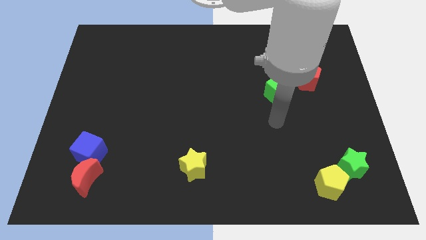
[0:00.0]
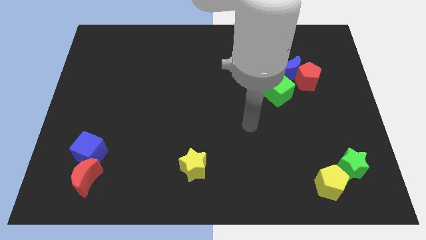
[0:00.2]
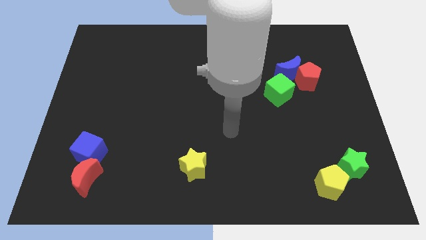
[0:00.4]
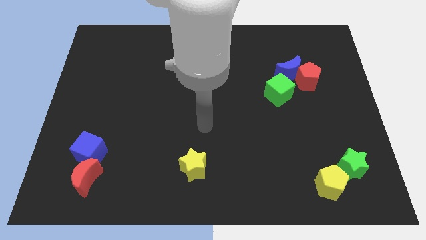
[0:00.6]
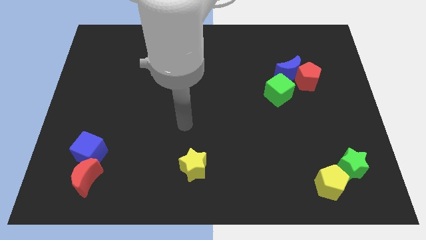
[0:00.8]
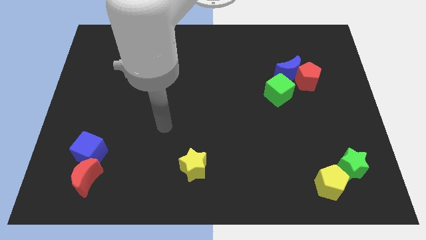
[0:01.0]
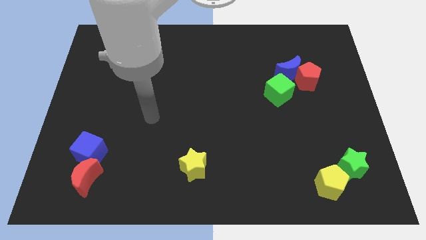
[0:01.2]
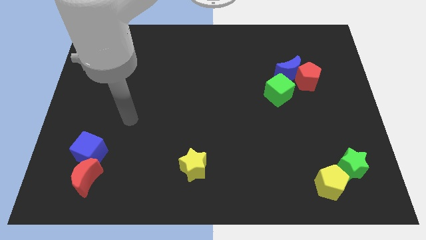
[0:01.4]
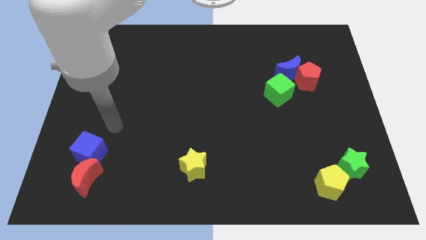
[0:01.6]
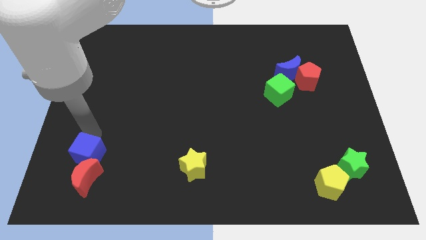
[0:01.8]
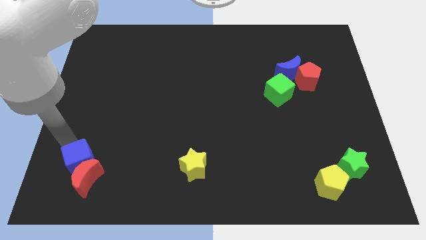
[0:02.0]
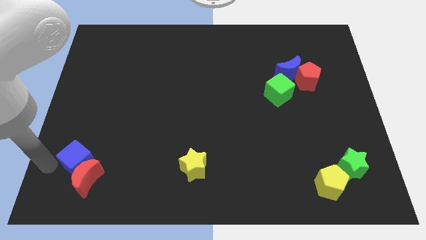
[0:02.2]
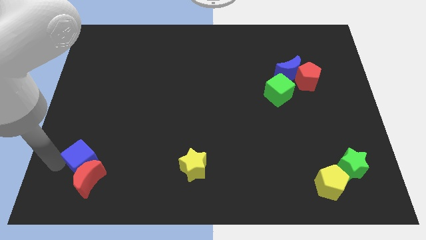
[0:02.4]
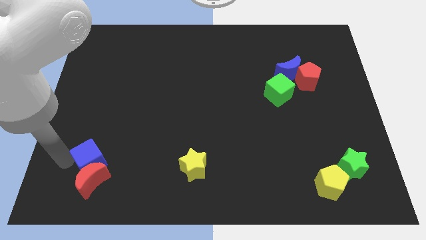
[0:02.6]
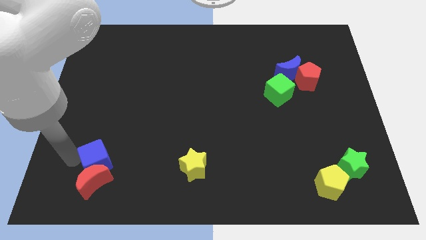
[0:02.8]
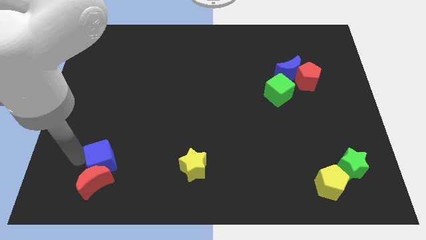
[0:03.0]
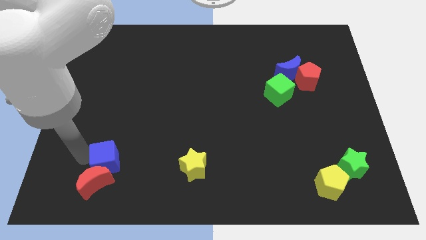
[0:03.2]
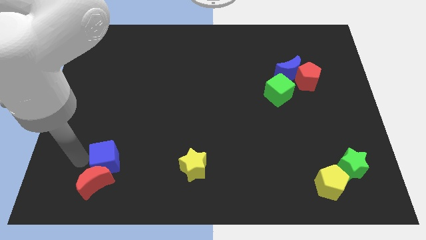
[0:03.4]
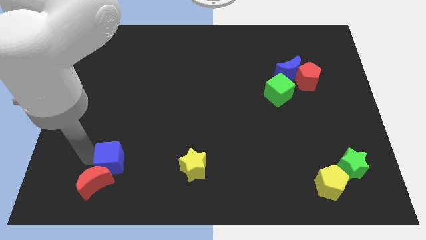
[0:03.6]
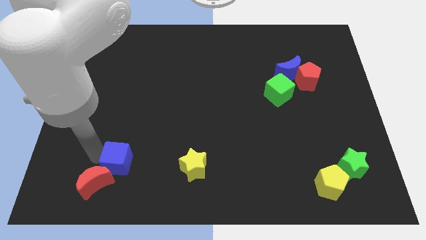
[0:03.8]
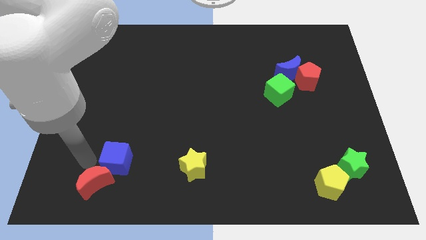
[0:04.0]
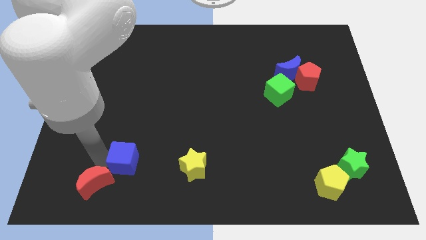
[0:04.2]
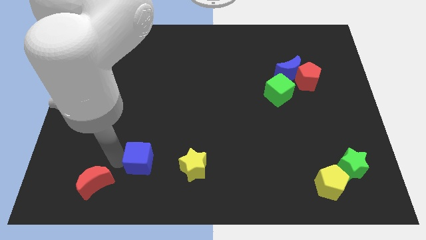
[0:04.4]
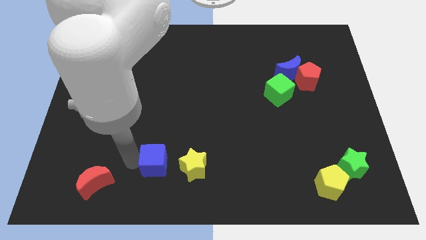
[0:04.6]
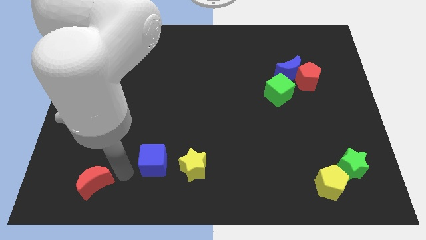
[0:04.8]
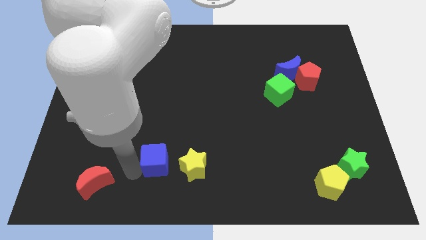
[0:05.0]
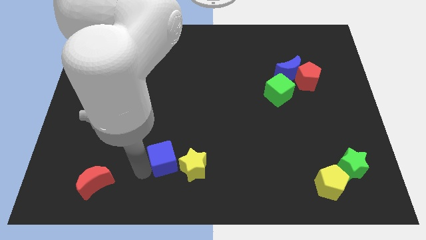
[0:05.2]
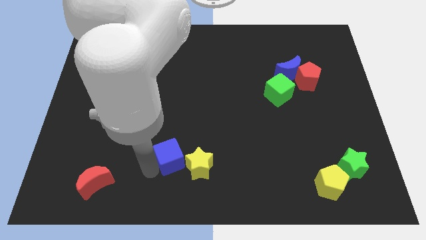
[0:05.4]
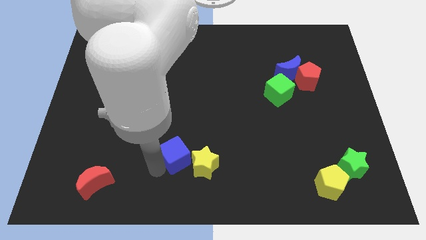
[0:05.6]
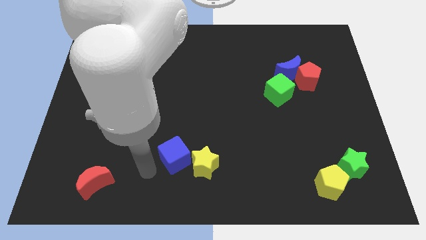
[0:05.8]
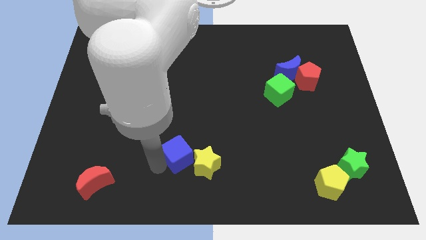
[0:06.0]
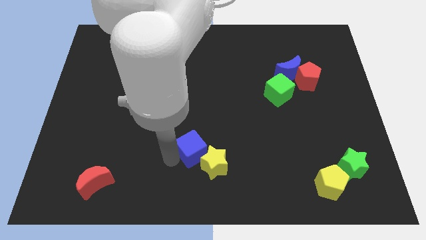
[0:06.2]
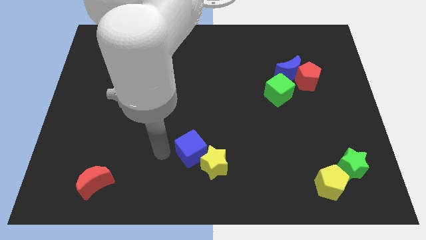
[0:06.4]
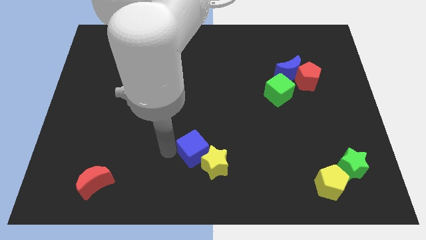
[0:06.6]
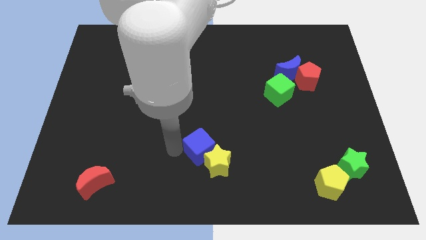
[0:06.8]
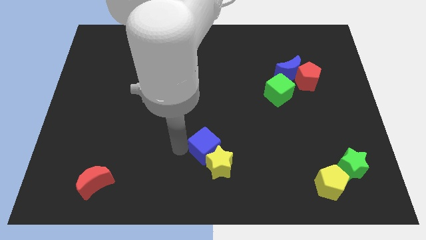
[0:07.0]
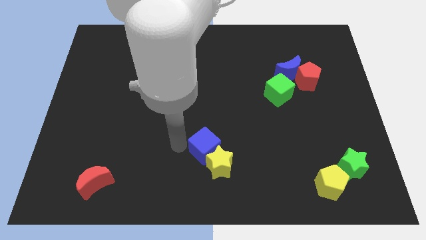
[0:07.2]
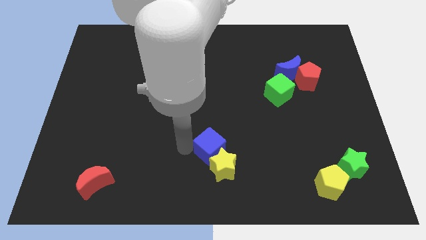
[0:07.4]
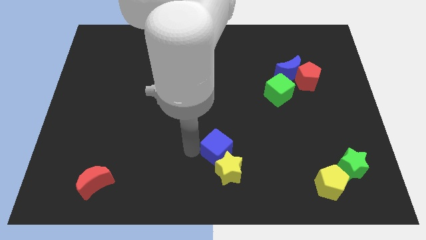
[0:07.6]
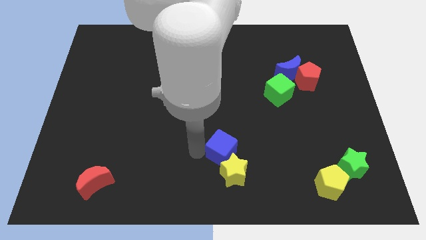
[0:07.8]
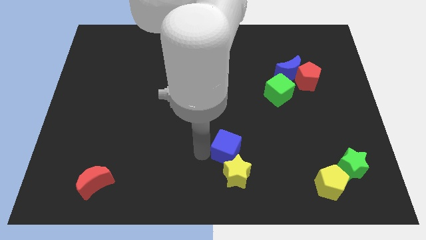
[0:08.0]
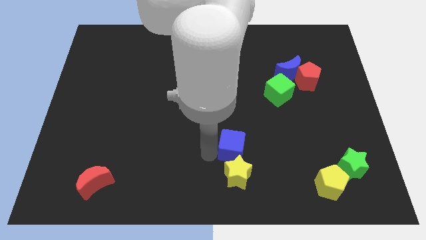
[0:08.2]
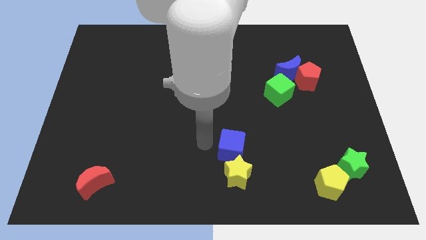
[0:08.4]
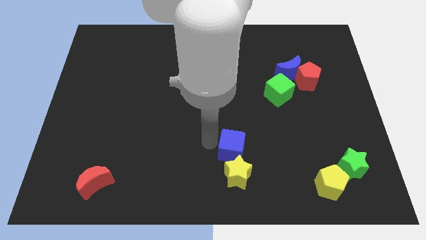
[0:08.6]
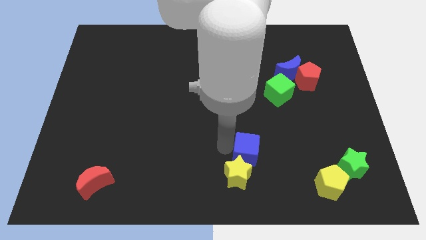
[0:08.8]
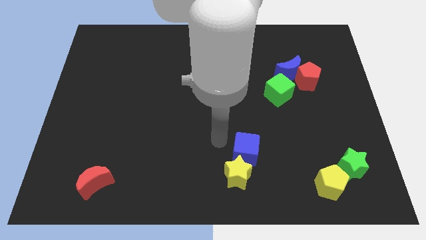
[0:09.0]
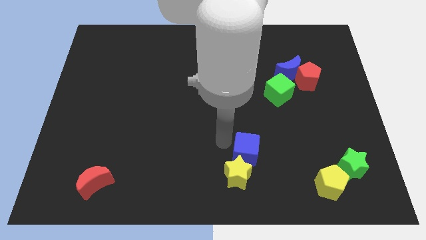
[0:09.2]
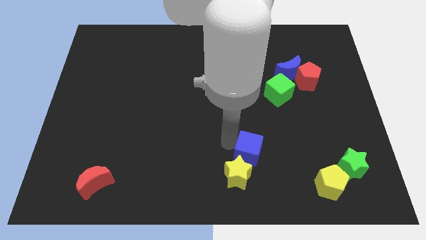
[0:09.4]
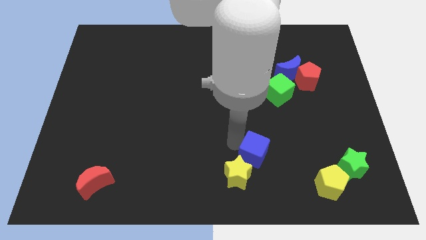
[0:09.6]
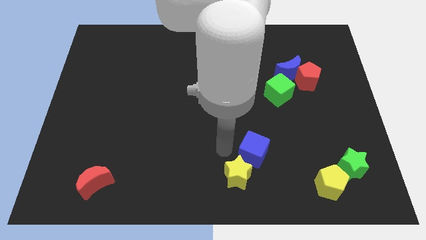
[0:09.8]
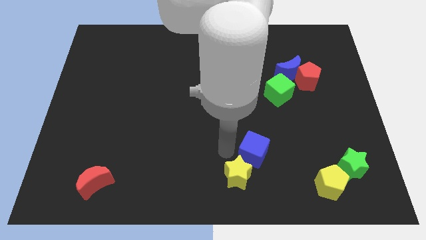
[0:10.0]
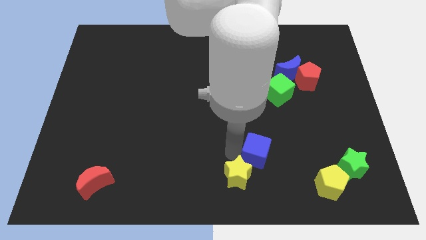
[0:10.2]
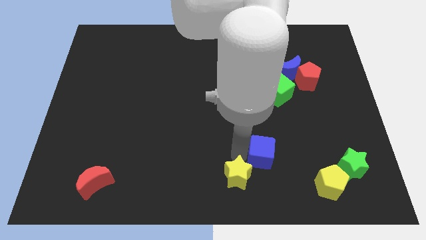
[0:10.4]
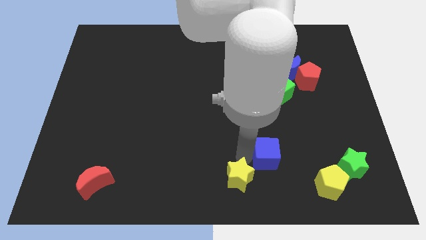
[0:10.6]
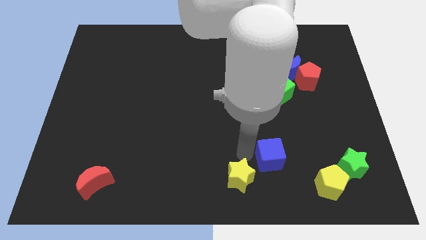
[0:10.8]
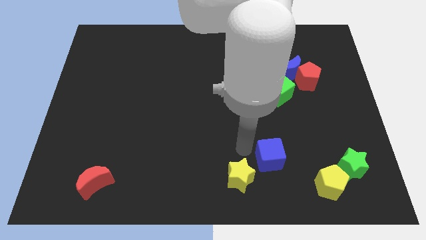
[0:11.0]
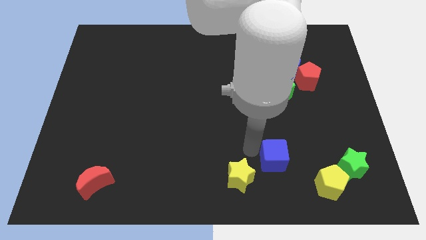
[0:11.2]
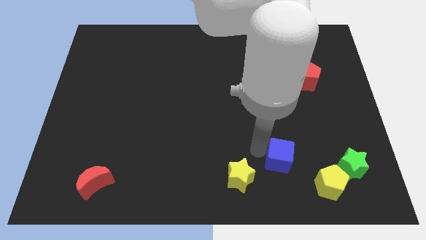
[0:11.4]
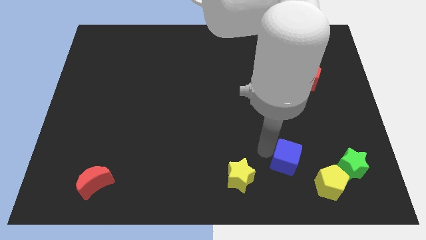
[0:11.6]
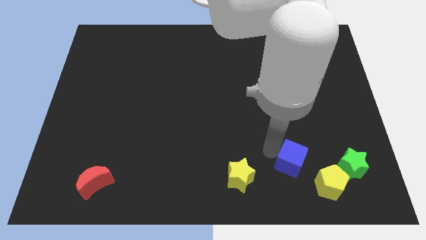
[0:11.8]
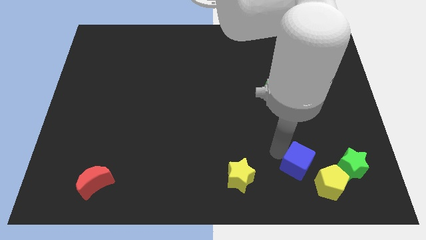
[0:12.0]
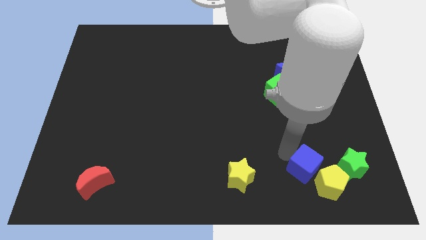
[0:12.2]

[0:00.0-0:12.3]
move the blue cube close to the yellow pentagon

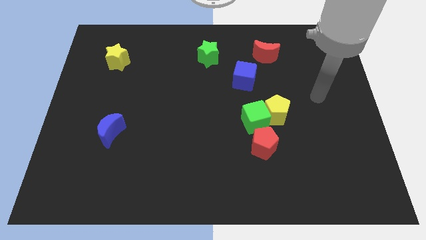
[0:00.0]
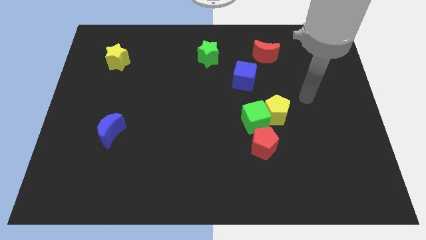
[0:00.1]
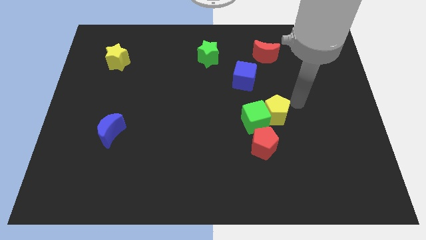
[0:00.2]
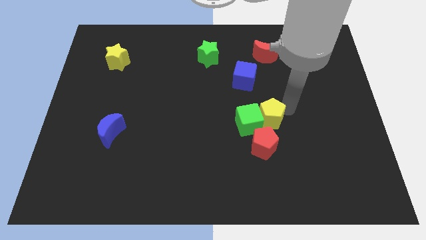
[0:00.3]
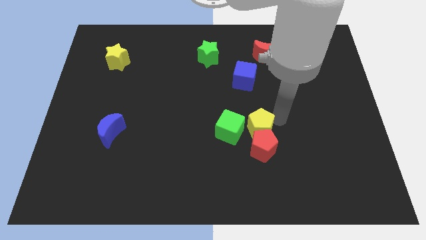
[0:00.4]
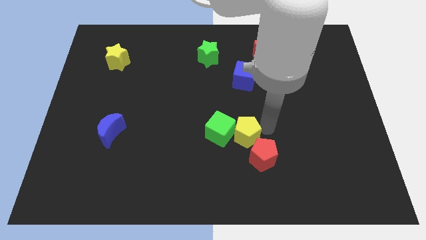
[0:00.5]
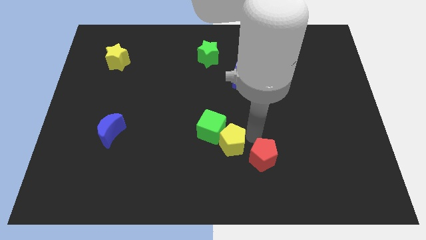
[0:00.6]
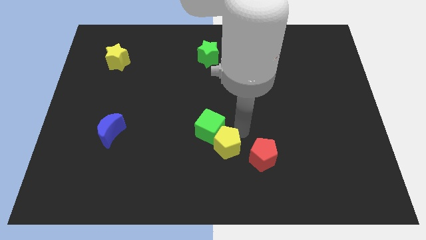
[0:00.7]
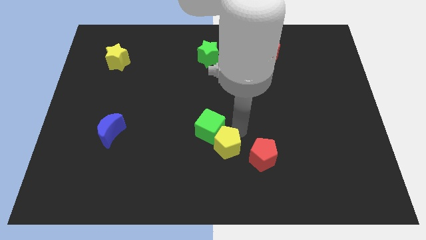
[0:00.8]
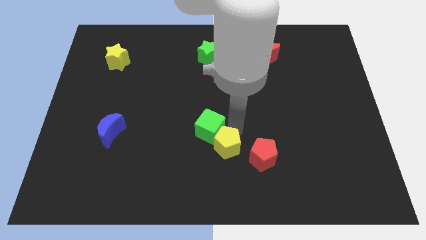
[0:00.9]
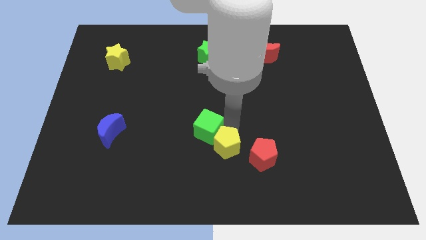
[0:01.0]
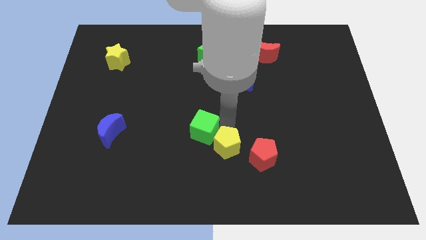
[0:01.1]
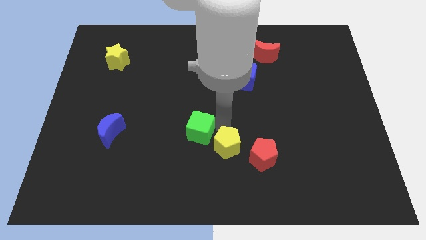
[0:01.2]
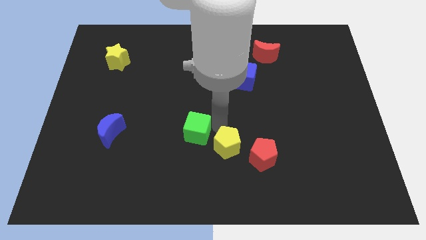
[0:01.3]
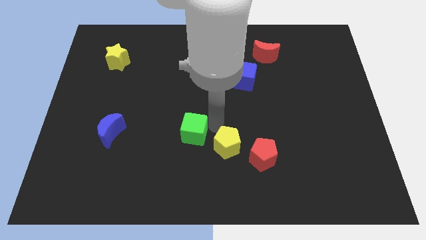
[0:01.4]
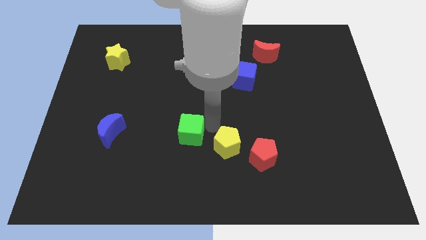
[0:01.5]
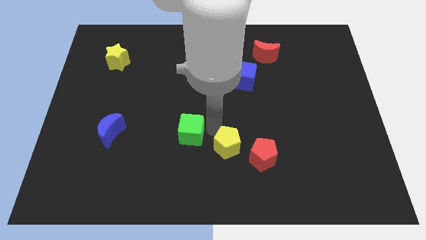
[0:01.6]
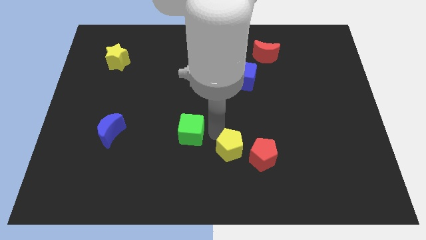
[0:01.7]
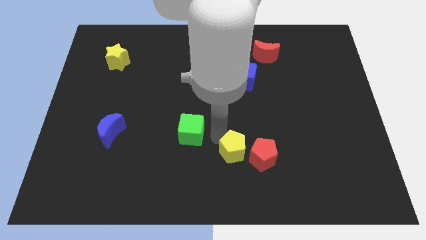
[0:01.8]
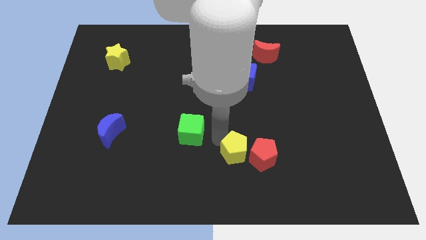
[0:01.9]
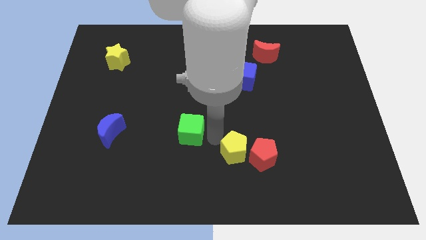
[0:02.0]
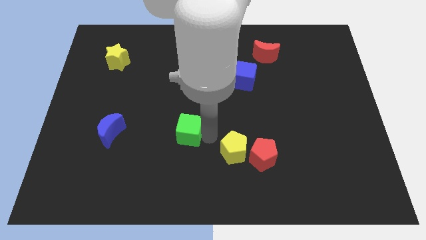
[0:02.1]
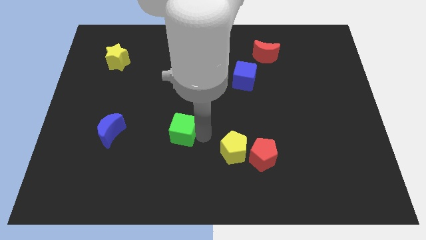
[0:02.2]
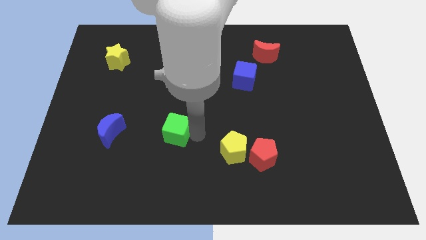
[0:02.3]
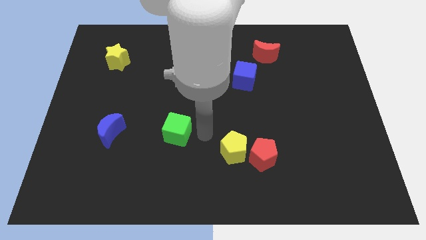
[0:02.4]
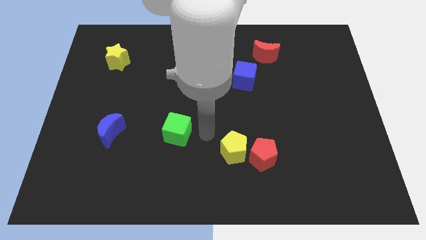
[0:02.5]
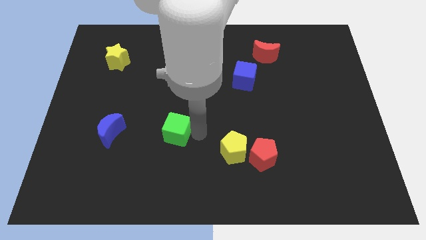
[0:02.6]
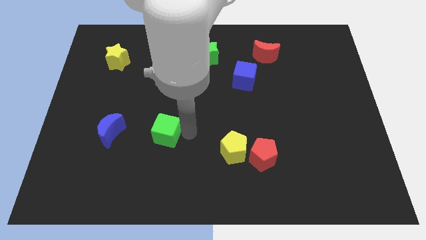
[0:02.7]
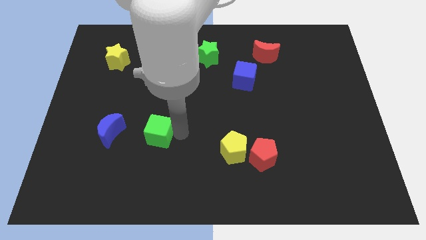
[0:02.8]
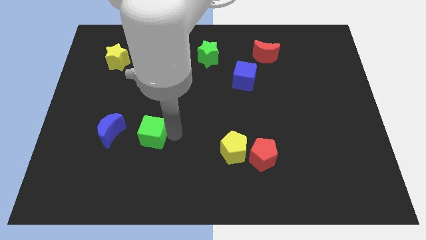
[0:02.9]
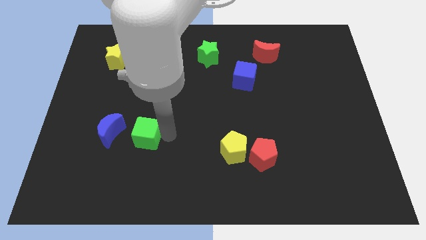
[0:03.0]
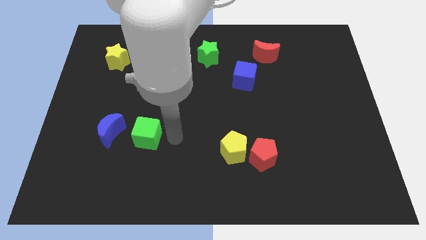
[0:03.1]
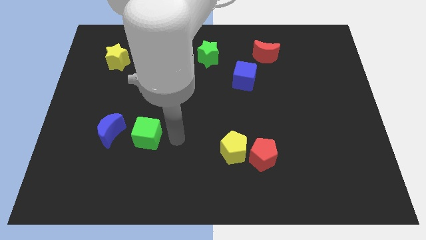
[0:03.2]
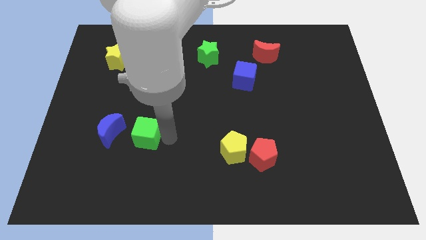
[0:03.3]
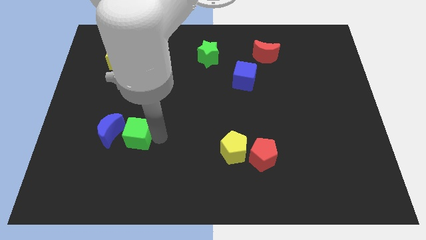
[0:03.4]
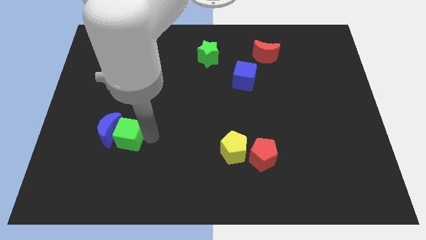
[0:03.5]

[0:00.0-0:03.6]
move the green cube close to the blue moon
